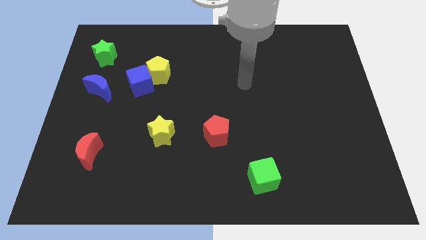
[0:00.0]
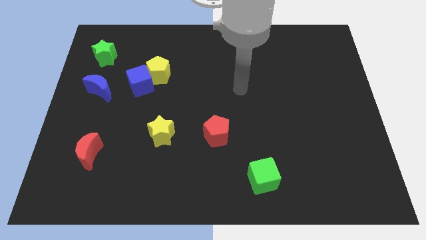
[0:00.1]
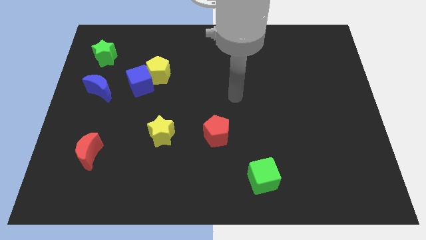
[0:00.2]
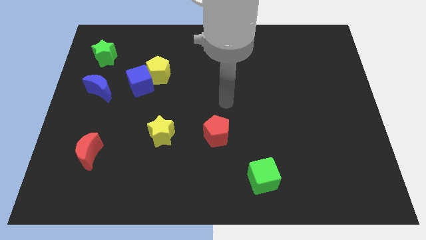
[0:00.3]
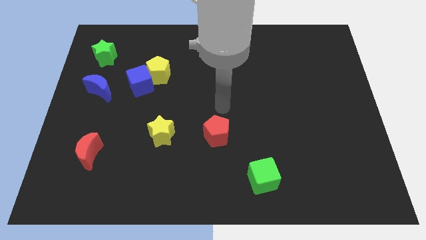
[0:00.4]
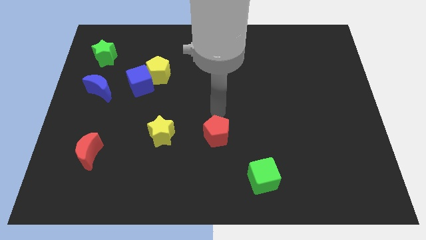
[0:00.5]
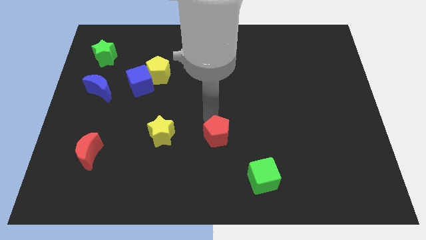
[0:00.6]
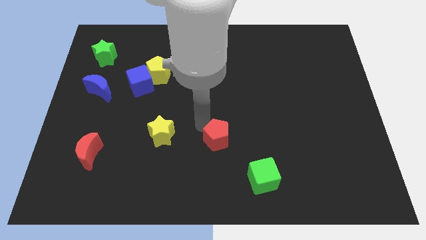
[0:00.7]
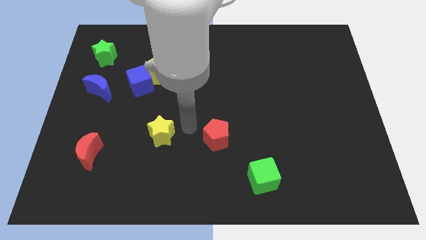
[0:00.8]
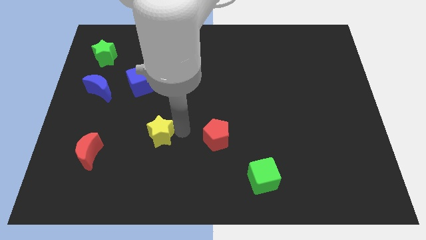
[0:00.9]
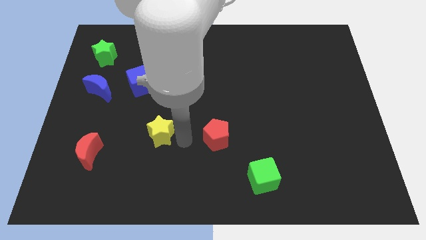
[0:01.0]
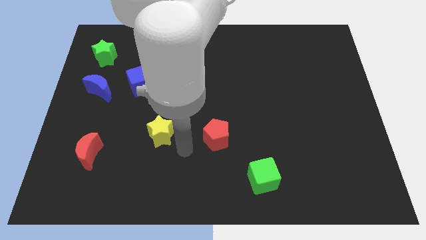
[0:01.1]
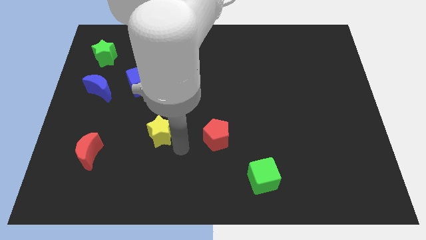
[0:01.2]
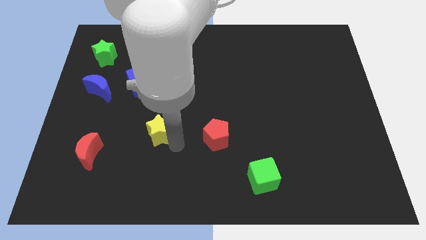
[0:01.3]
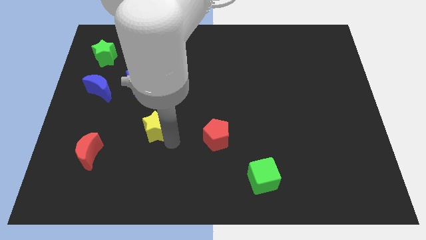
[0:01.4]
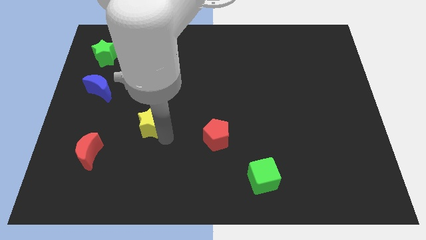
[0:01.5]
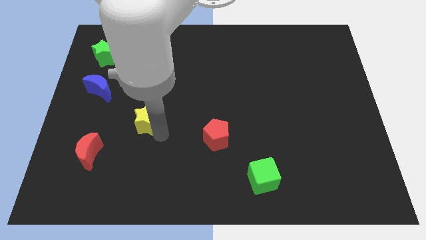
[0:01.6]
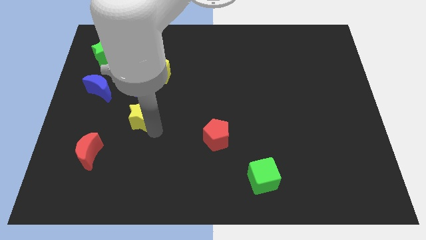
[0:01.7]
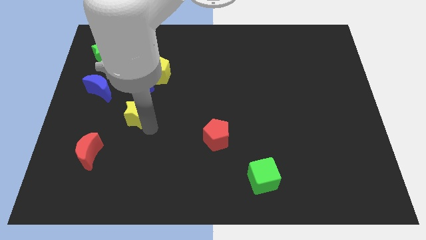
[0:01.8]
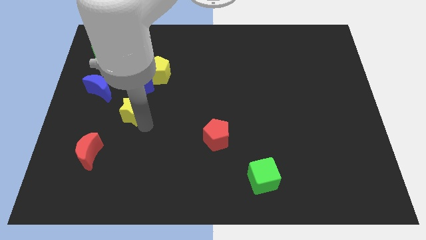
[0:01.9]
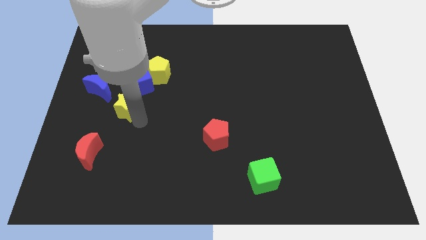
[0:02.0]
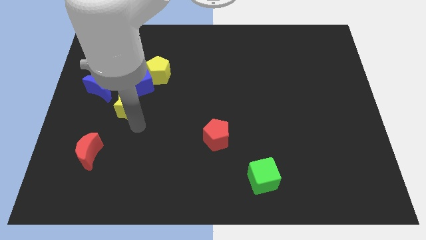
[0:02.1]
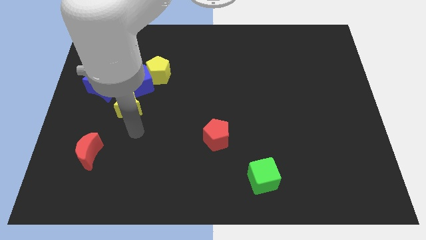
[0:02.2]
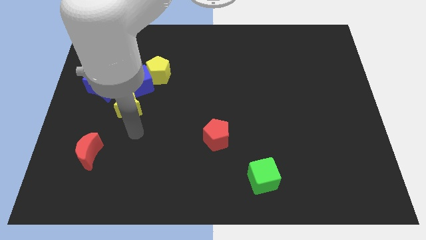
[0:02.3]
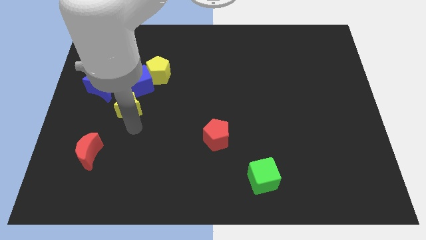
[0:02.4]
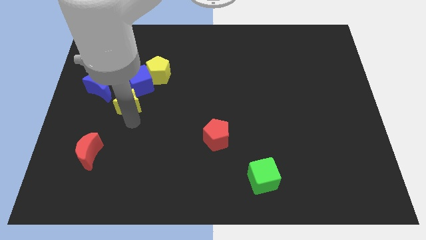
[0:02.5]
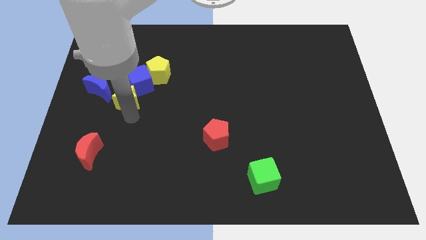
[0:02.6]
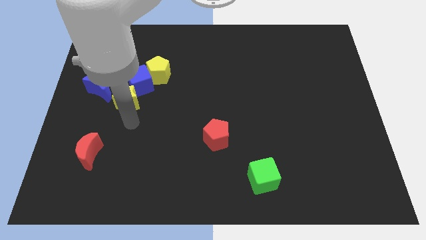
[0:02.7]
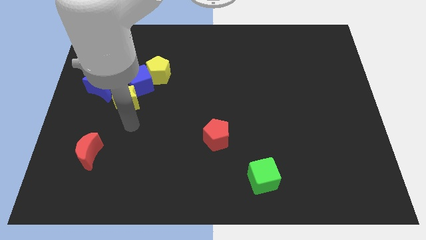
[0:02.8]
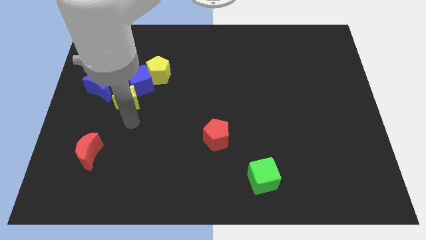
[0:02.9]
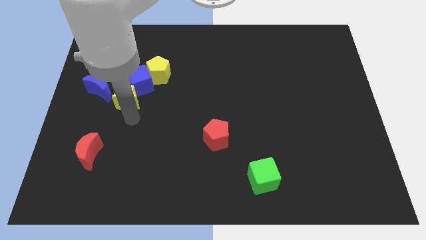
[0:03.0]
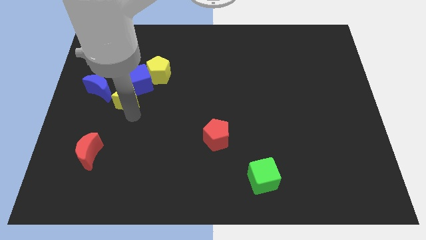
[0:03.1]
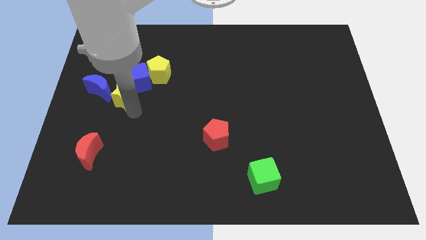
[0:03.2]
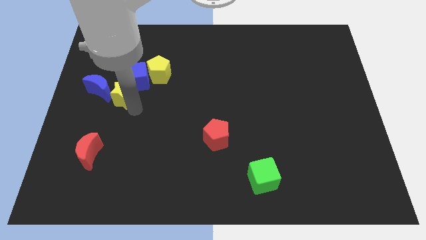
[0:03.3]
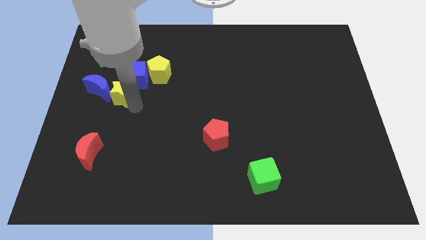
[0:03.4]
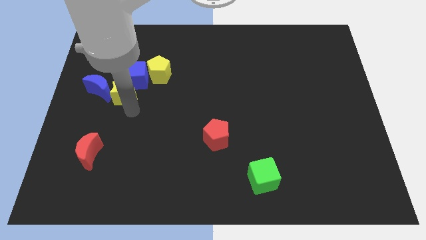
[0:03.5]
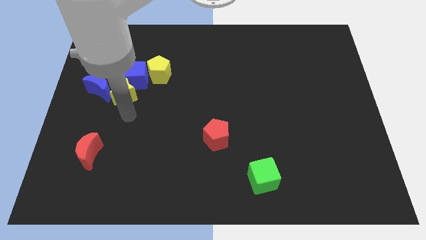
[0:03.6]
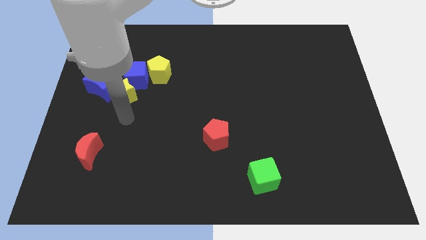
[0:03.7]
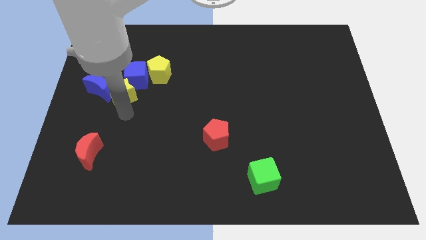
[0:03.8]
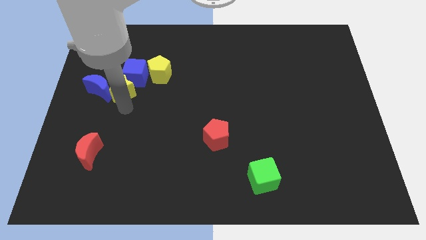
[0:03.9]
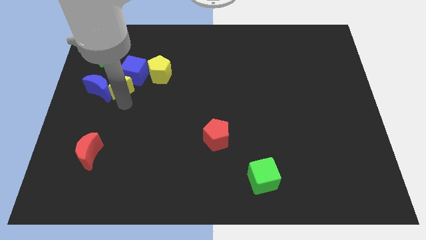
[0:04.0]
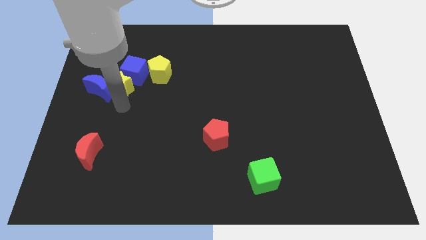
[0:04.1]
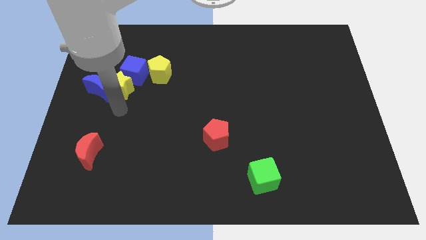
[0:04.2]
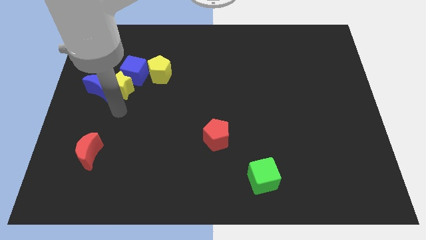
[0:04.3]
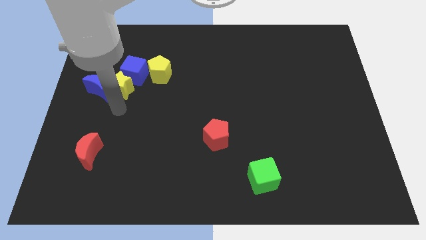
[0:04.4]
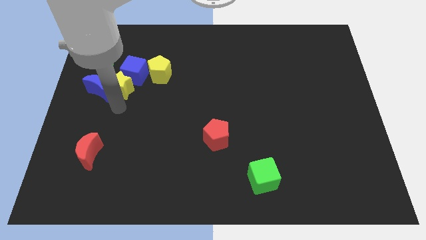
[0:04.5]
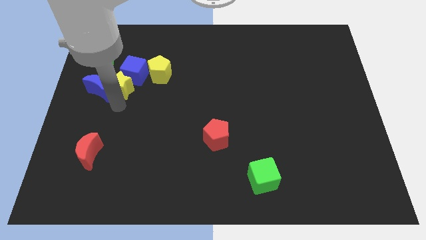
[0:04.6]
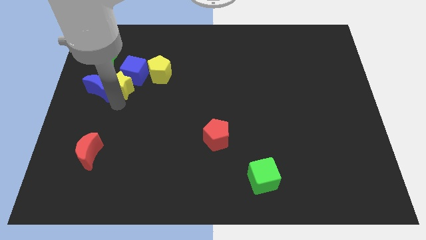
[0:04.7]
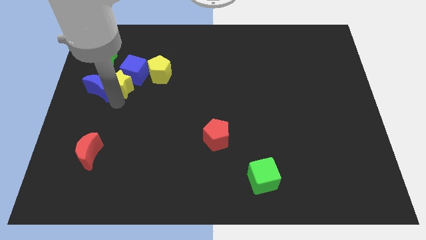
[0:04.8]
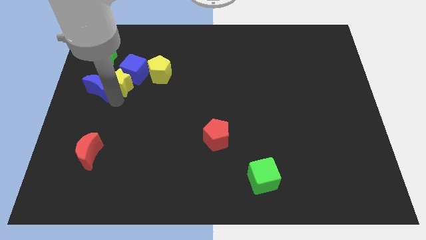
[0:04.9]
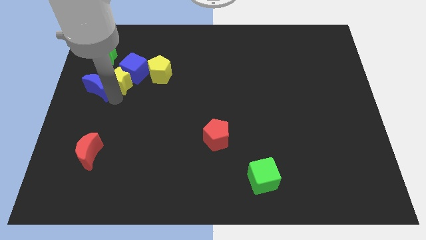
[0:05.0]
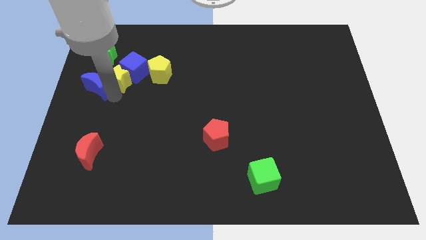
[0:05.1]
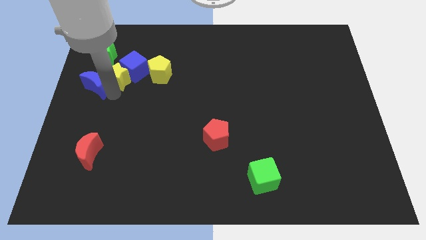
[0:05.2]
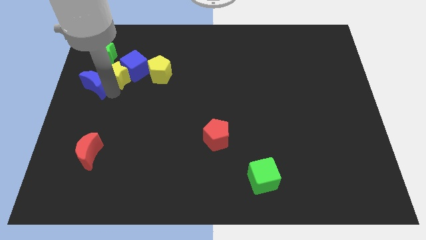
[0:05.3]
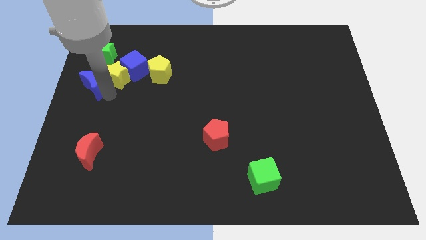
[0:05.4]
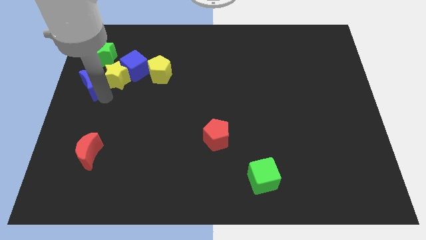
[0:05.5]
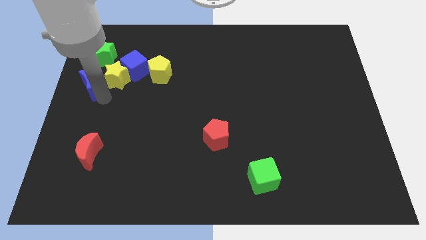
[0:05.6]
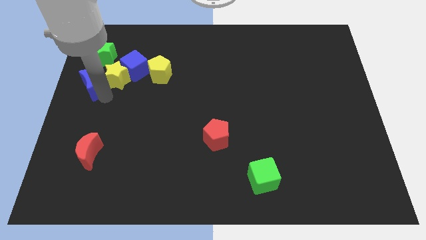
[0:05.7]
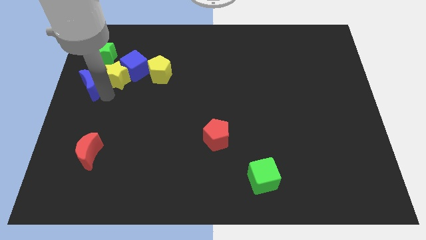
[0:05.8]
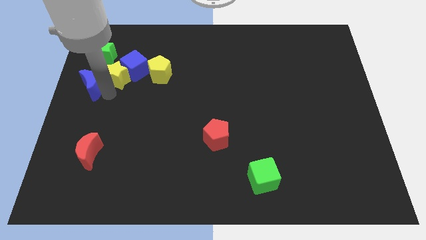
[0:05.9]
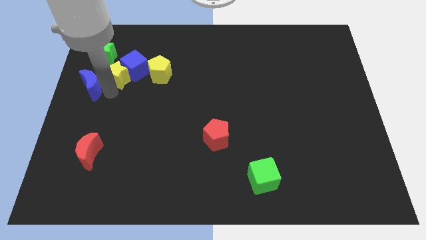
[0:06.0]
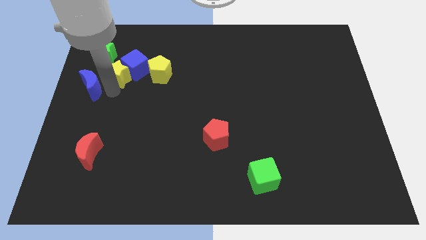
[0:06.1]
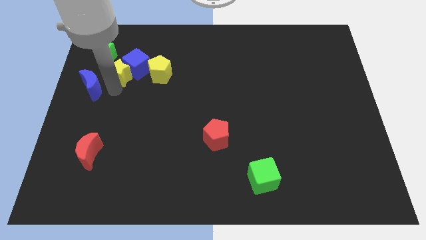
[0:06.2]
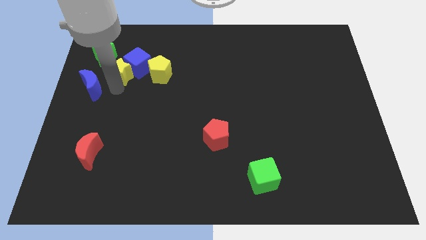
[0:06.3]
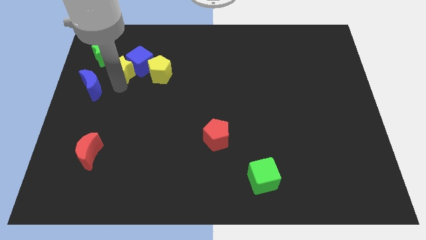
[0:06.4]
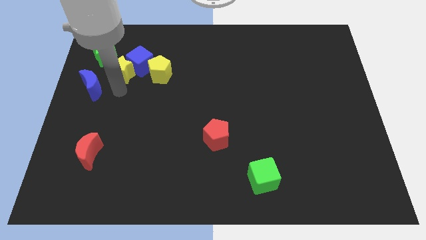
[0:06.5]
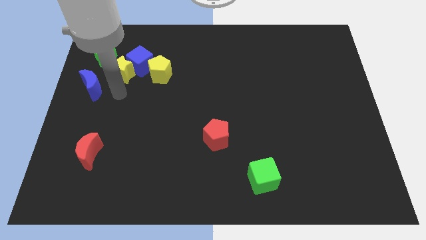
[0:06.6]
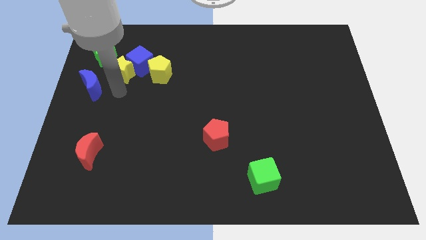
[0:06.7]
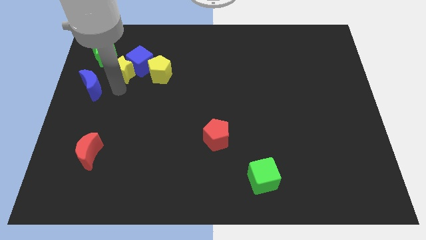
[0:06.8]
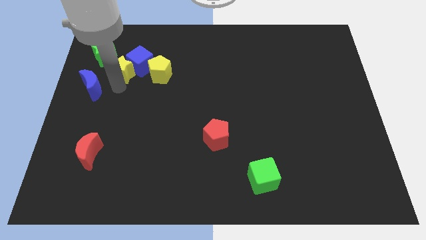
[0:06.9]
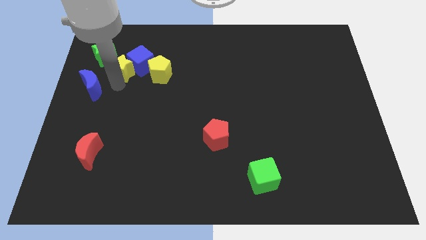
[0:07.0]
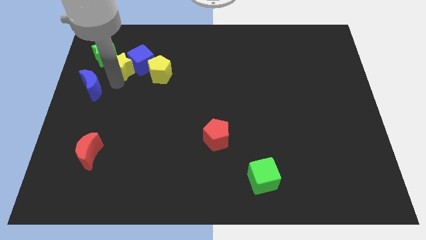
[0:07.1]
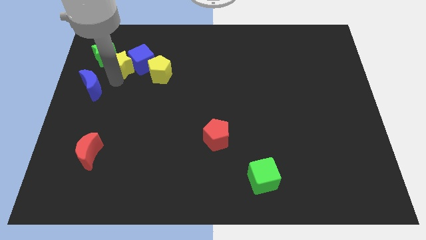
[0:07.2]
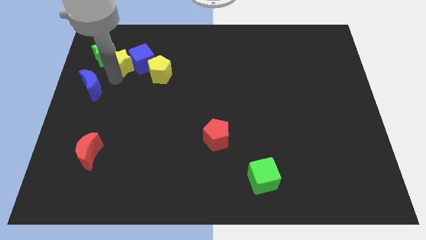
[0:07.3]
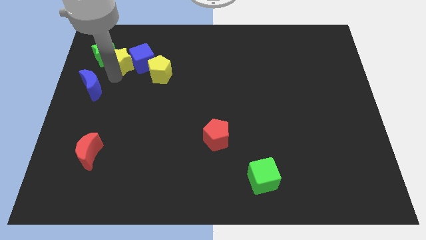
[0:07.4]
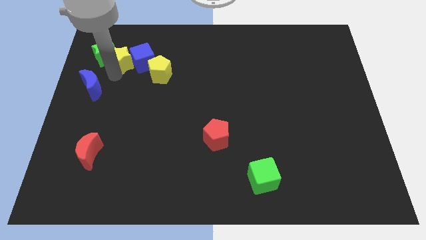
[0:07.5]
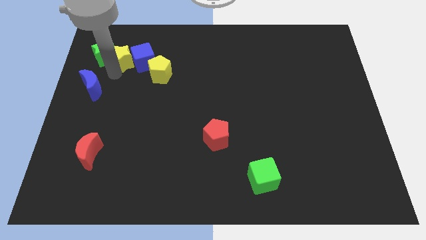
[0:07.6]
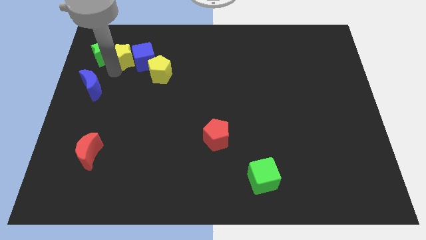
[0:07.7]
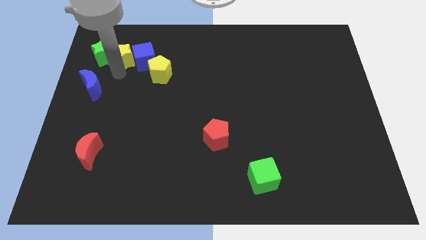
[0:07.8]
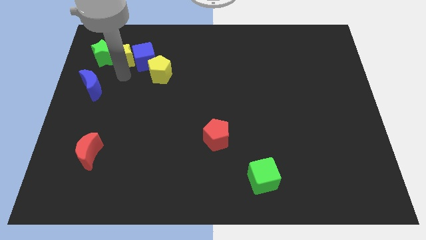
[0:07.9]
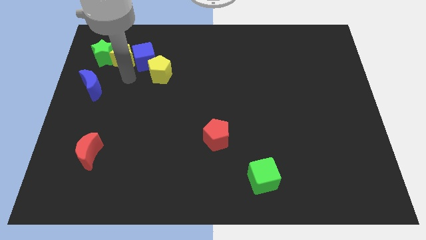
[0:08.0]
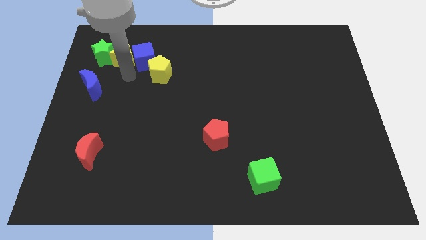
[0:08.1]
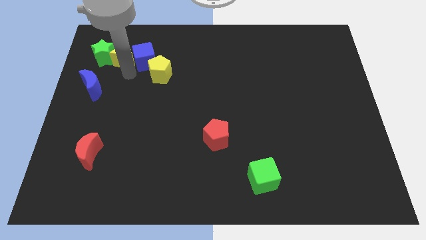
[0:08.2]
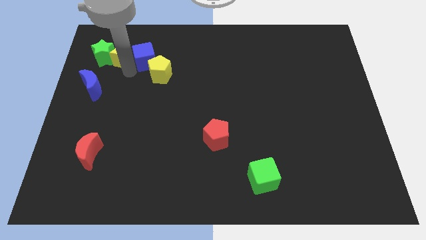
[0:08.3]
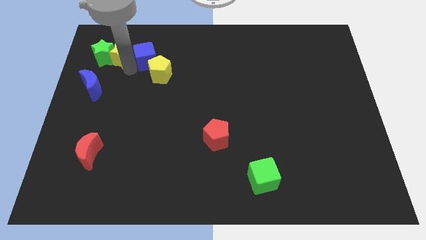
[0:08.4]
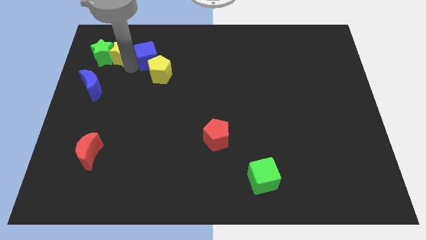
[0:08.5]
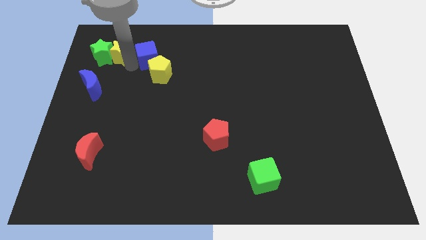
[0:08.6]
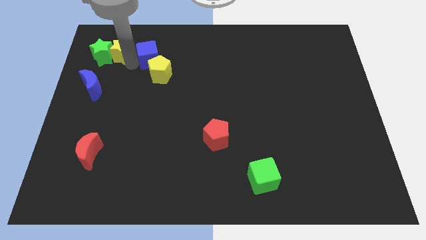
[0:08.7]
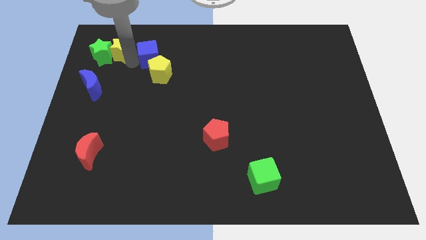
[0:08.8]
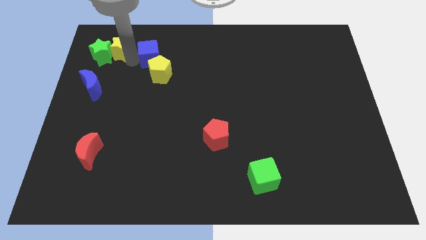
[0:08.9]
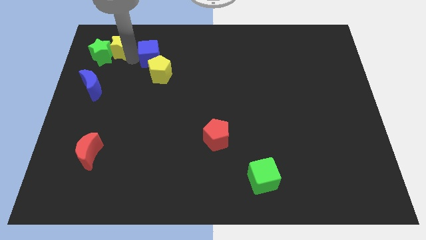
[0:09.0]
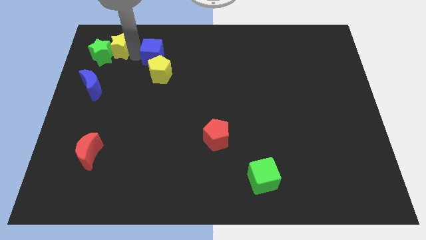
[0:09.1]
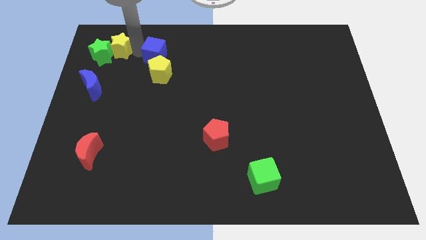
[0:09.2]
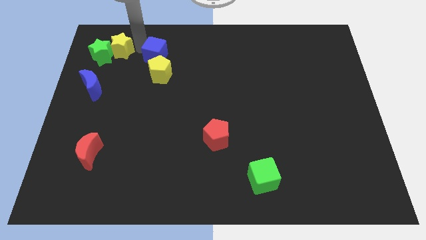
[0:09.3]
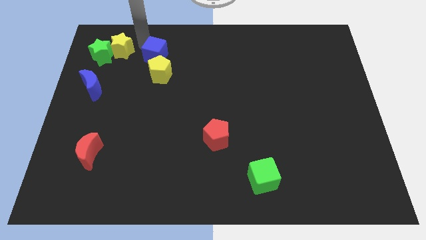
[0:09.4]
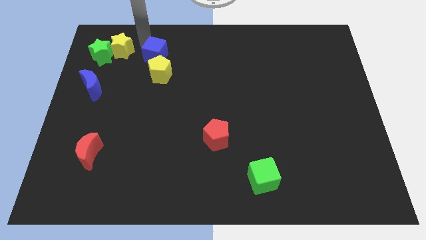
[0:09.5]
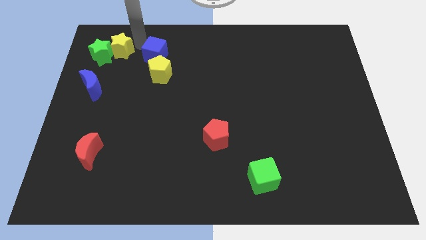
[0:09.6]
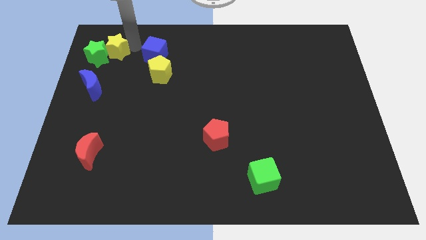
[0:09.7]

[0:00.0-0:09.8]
move the yellow star above the blue moon
